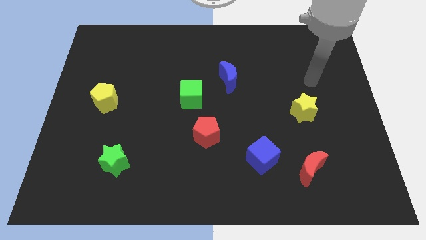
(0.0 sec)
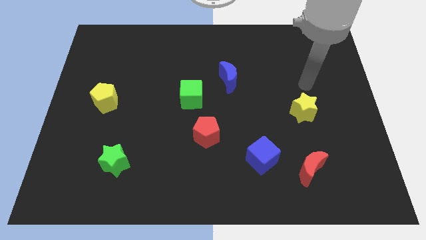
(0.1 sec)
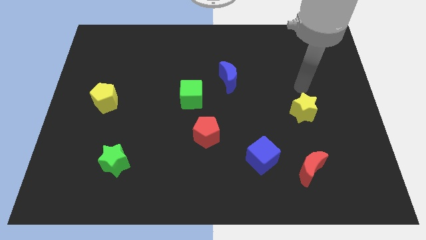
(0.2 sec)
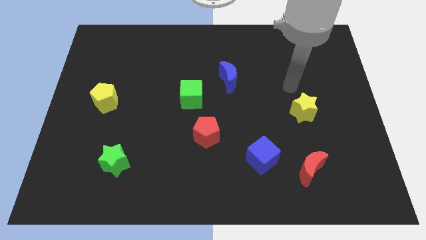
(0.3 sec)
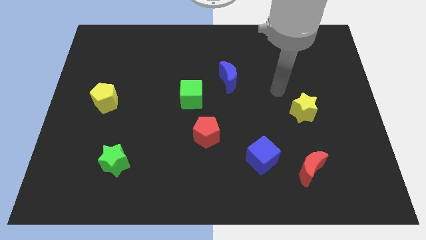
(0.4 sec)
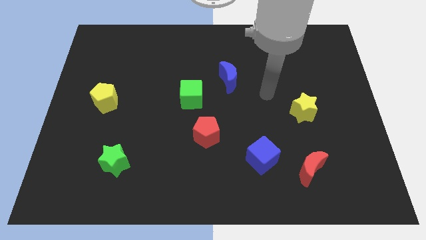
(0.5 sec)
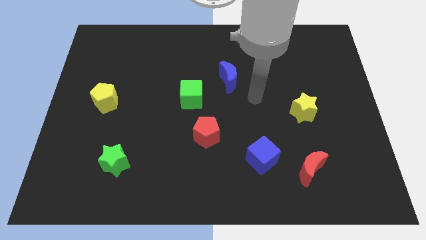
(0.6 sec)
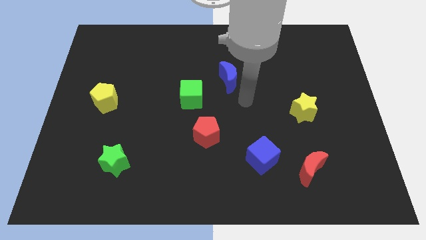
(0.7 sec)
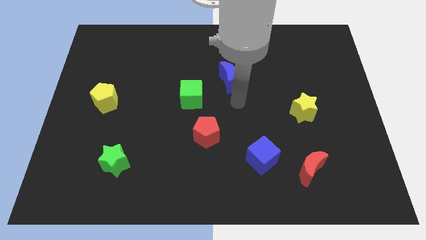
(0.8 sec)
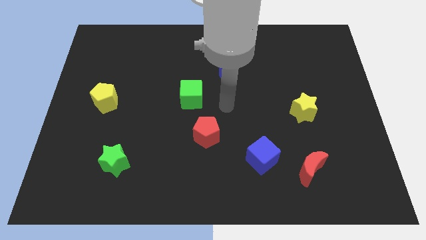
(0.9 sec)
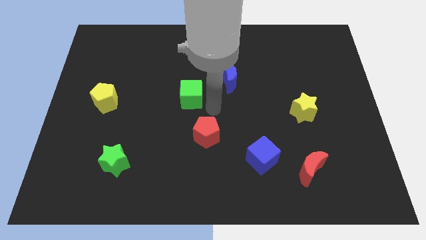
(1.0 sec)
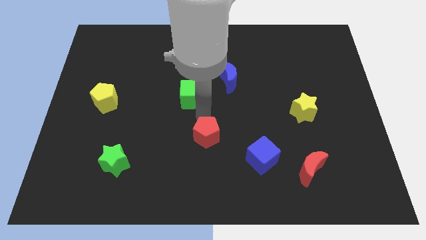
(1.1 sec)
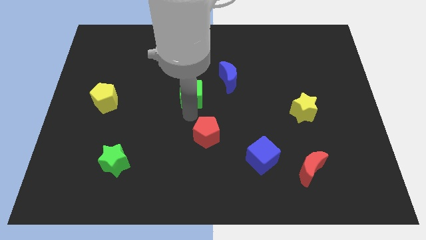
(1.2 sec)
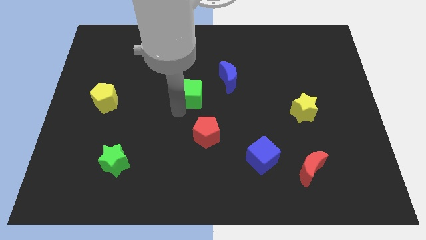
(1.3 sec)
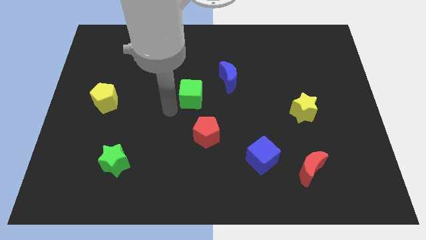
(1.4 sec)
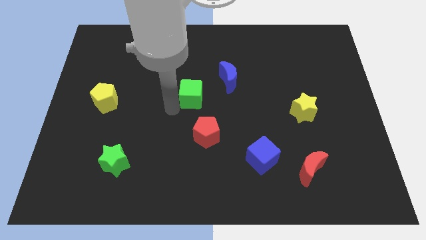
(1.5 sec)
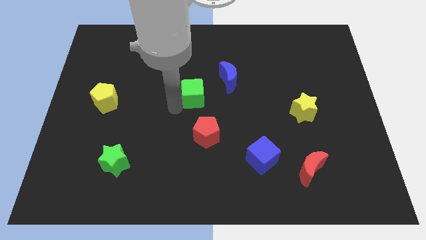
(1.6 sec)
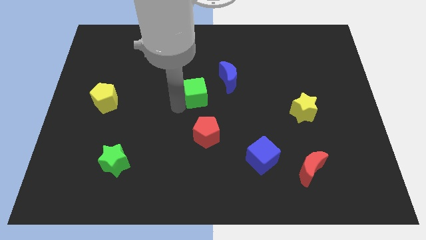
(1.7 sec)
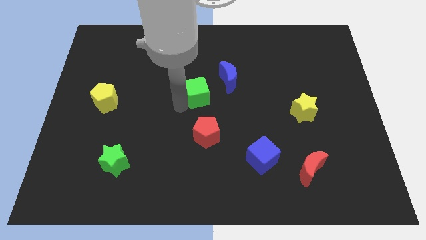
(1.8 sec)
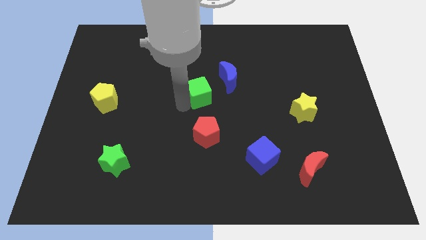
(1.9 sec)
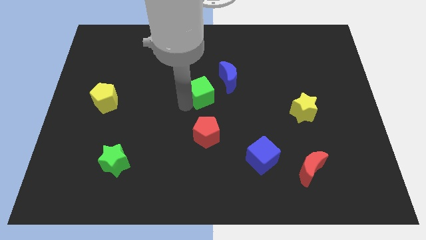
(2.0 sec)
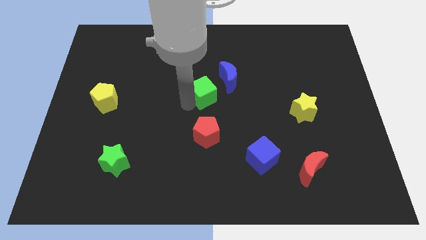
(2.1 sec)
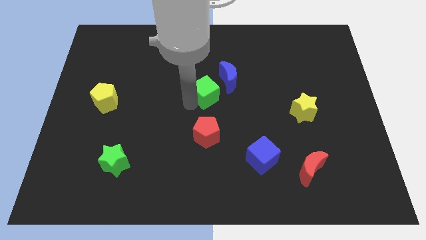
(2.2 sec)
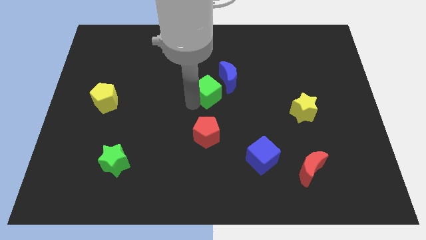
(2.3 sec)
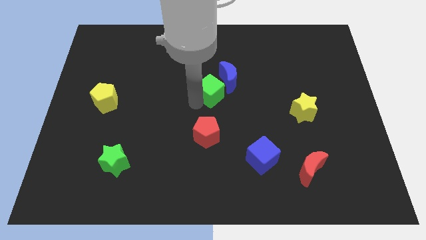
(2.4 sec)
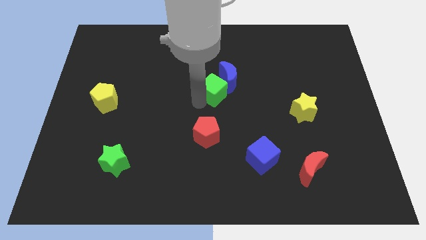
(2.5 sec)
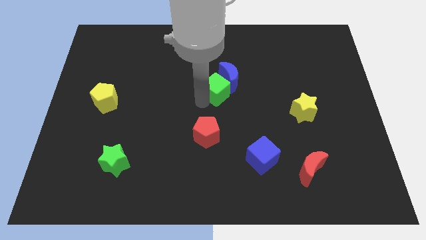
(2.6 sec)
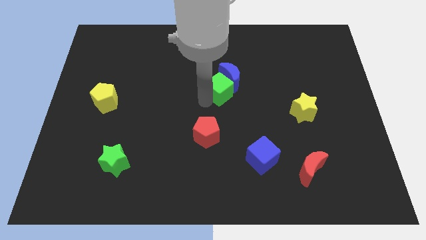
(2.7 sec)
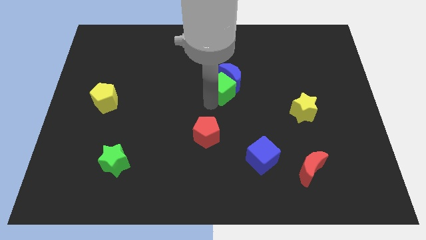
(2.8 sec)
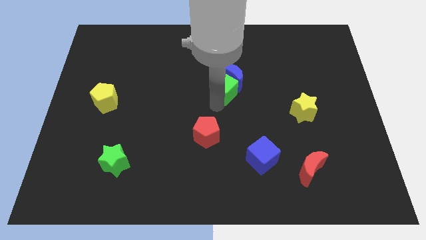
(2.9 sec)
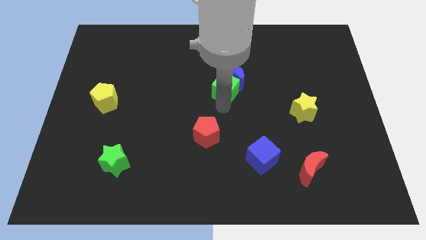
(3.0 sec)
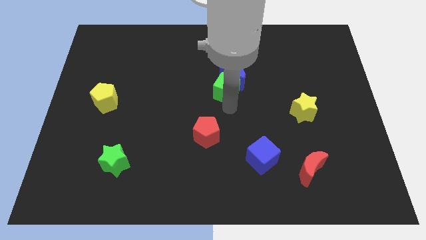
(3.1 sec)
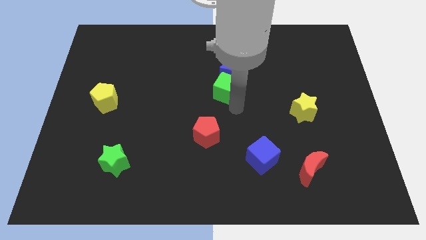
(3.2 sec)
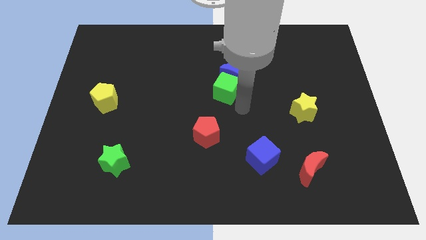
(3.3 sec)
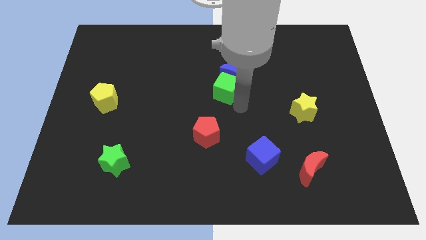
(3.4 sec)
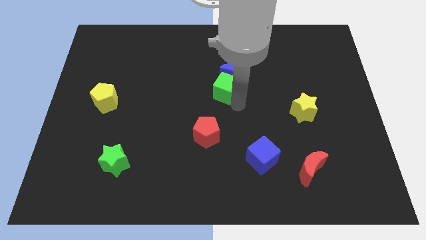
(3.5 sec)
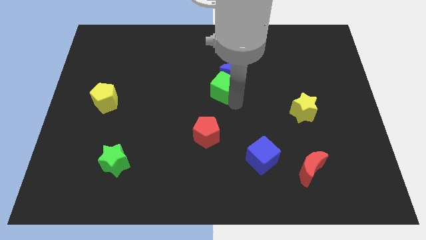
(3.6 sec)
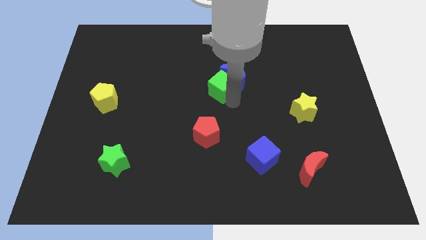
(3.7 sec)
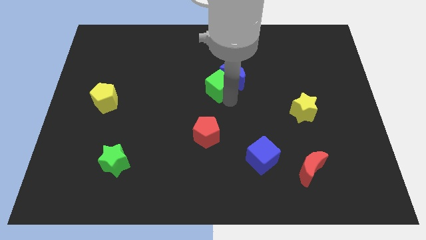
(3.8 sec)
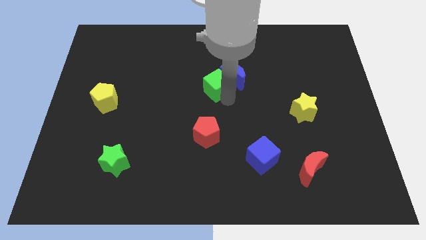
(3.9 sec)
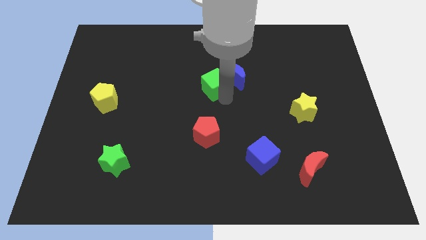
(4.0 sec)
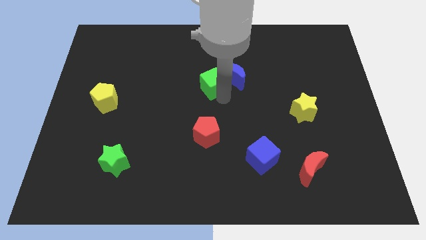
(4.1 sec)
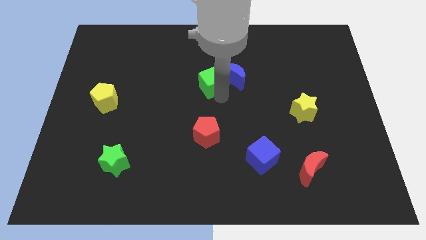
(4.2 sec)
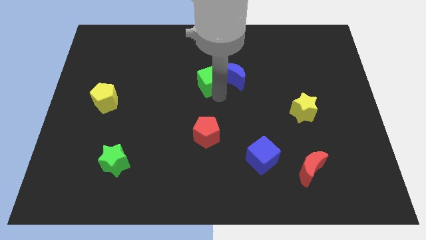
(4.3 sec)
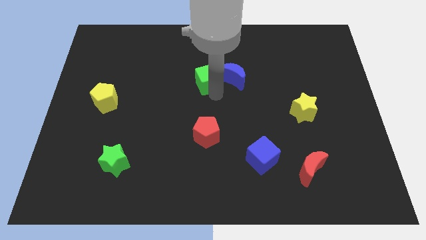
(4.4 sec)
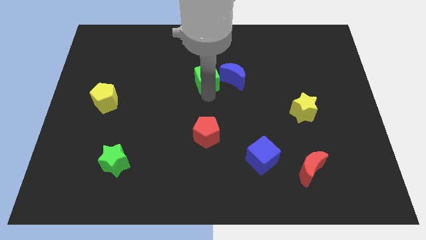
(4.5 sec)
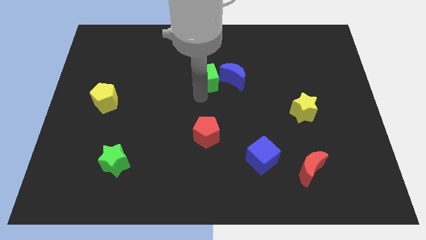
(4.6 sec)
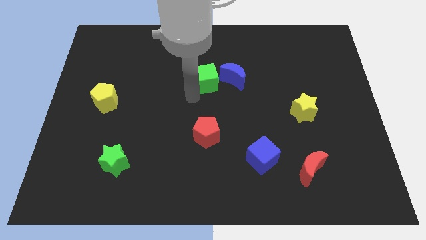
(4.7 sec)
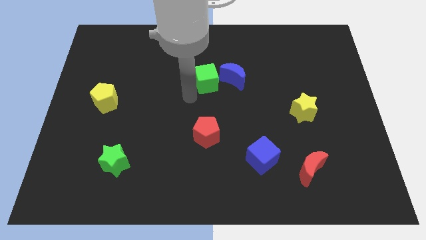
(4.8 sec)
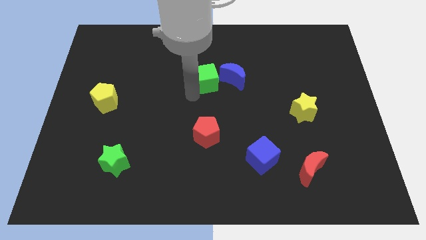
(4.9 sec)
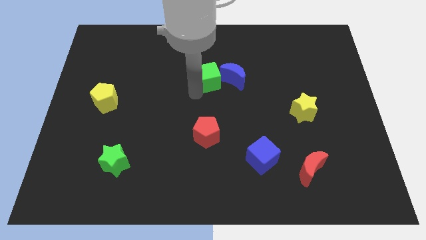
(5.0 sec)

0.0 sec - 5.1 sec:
move the green cube a little diagonally upwards and to the right

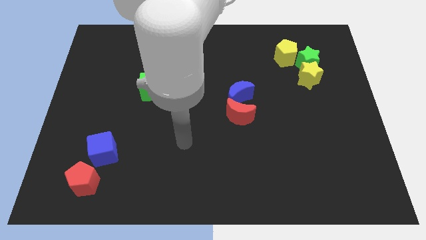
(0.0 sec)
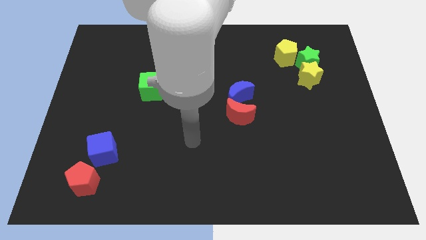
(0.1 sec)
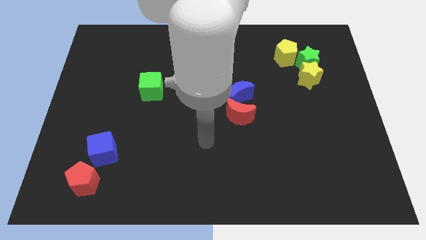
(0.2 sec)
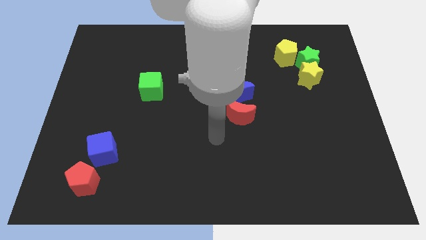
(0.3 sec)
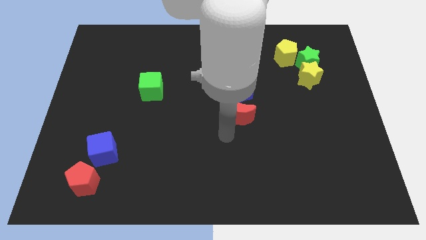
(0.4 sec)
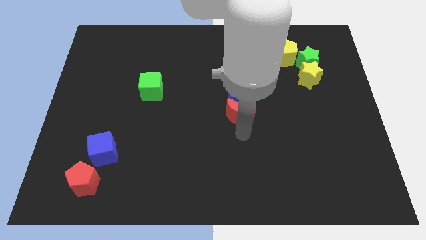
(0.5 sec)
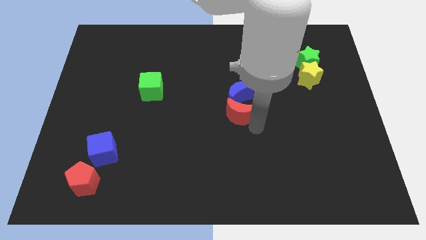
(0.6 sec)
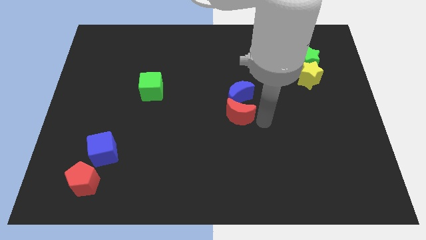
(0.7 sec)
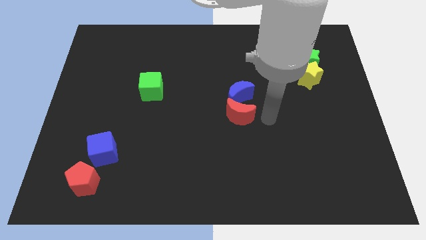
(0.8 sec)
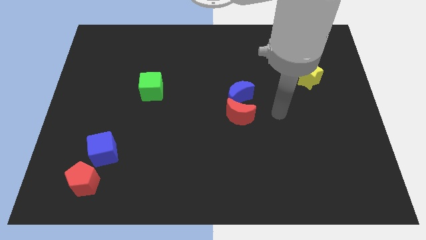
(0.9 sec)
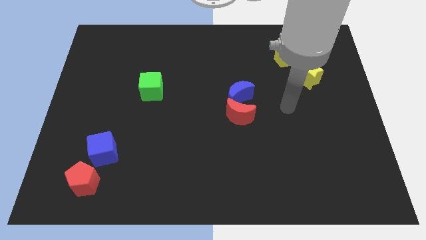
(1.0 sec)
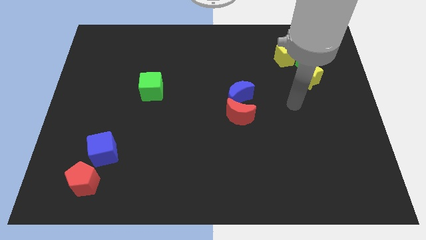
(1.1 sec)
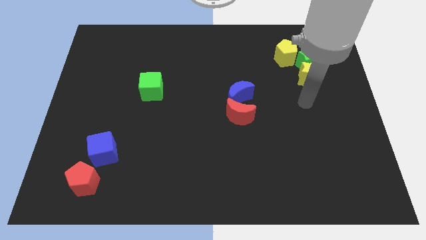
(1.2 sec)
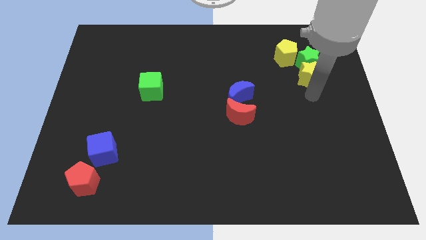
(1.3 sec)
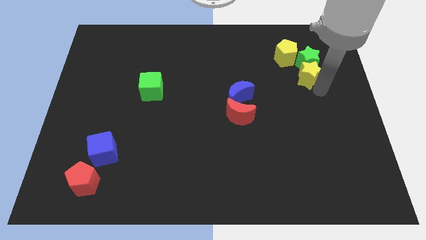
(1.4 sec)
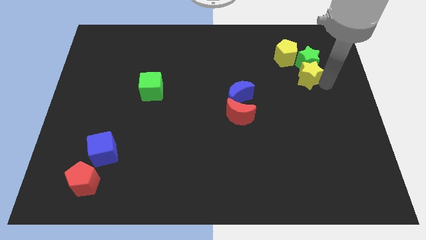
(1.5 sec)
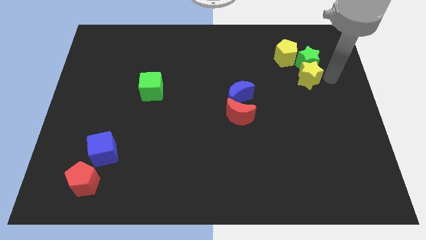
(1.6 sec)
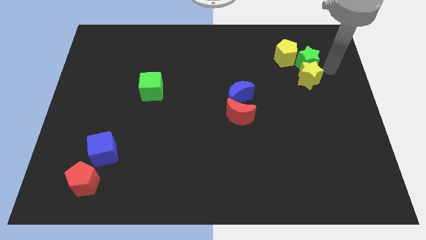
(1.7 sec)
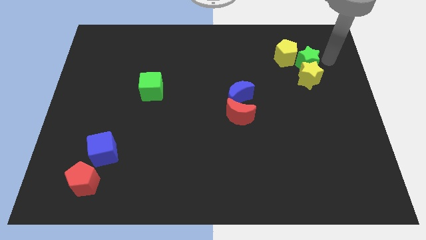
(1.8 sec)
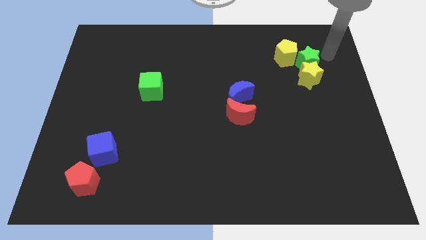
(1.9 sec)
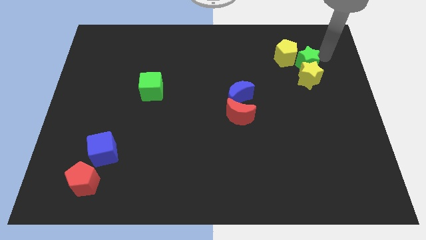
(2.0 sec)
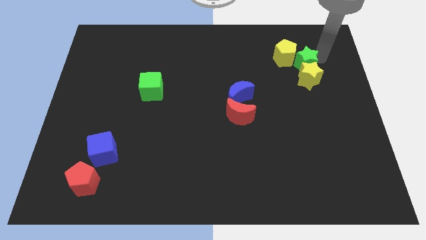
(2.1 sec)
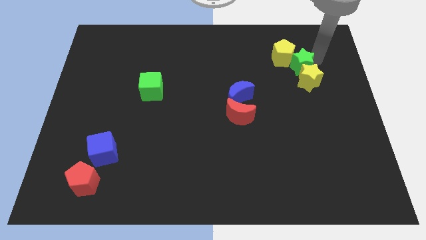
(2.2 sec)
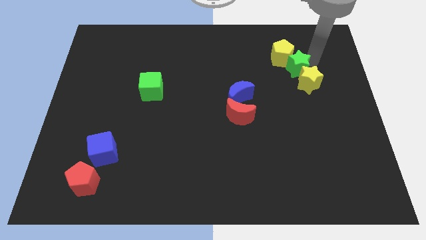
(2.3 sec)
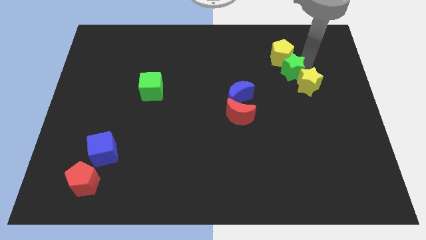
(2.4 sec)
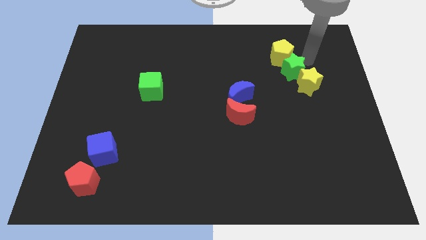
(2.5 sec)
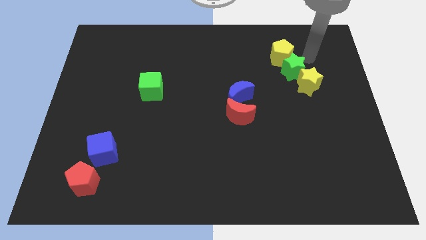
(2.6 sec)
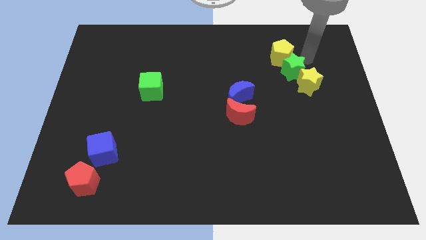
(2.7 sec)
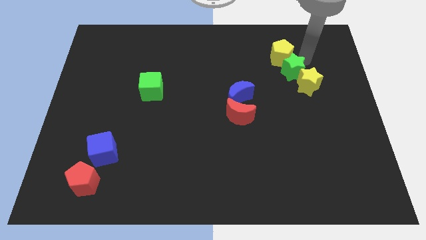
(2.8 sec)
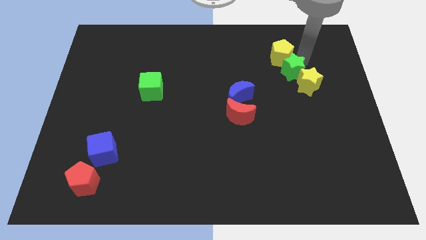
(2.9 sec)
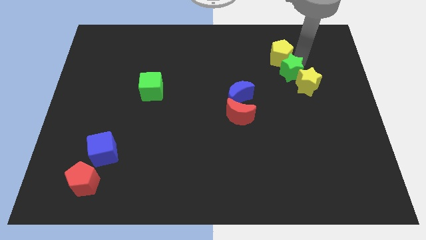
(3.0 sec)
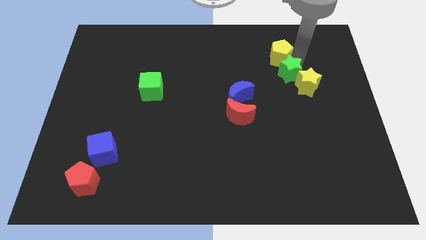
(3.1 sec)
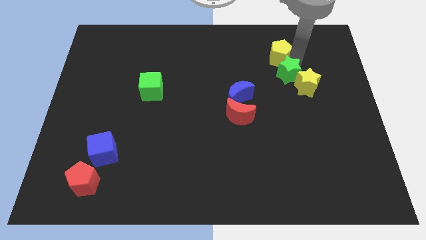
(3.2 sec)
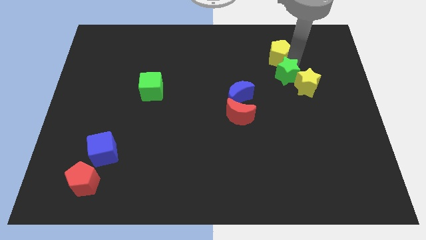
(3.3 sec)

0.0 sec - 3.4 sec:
push the green star somewhat down and then left
